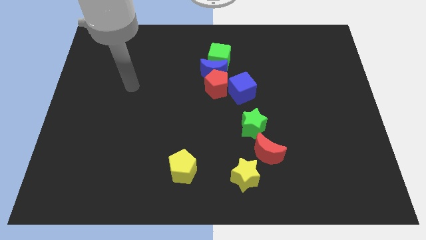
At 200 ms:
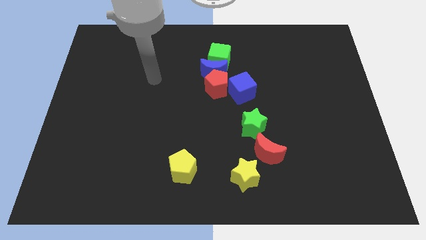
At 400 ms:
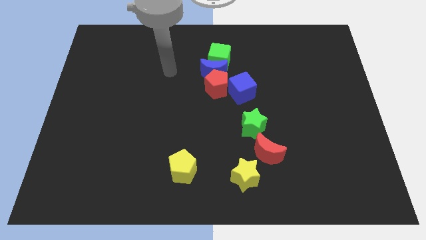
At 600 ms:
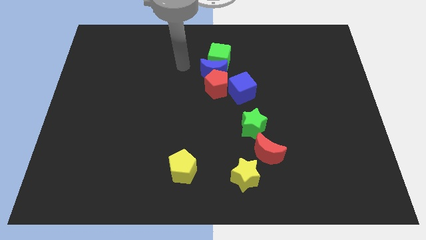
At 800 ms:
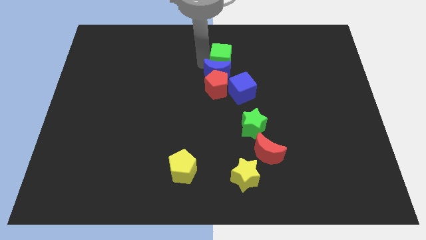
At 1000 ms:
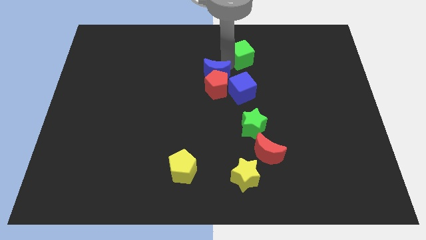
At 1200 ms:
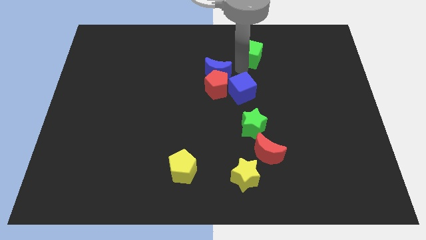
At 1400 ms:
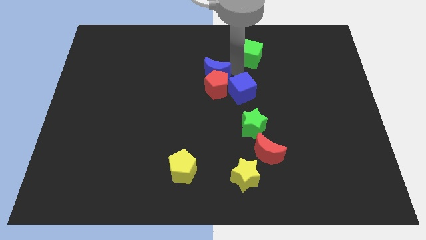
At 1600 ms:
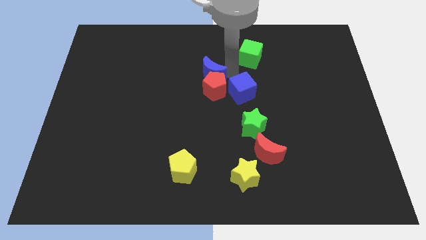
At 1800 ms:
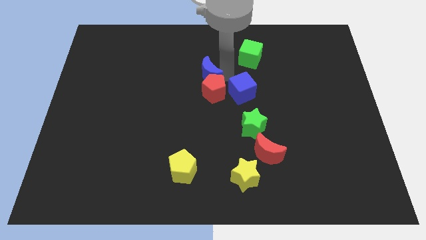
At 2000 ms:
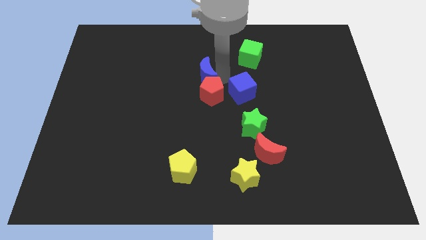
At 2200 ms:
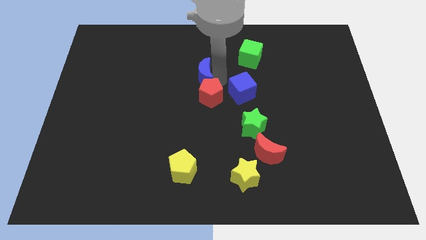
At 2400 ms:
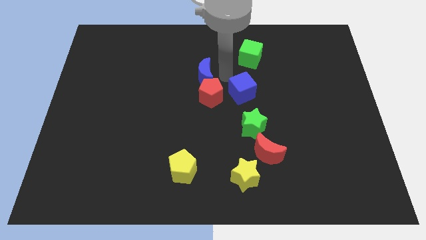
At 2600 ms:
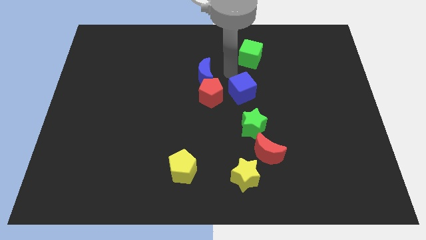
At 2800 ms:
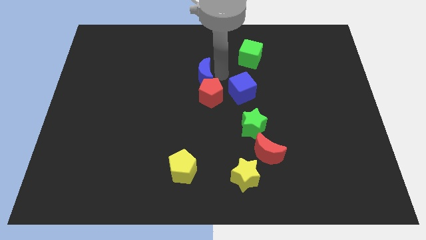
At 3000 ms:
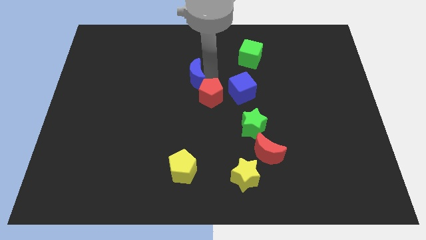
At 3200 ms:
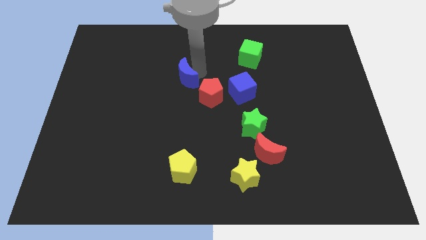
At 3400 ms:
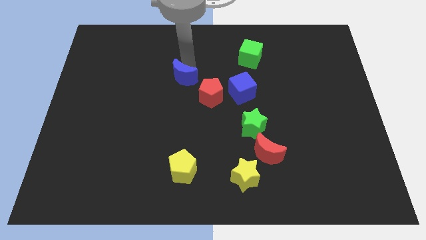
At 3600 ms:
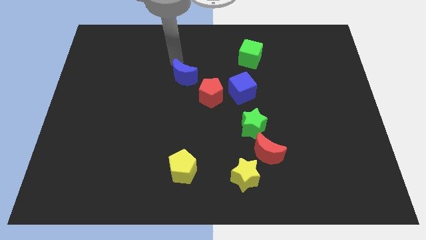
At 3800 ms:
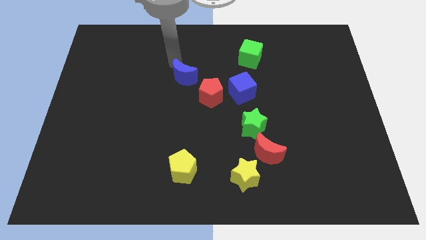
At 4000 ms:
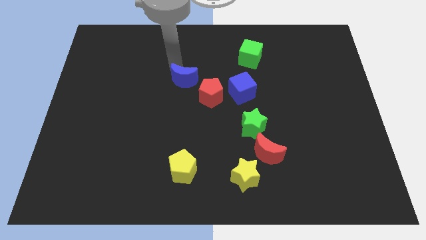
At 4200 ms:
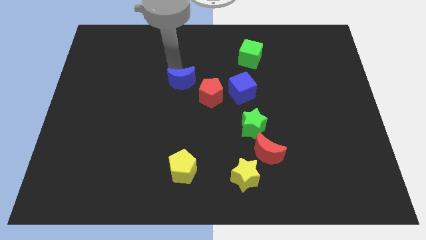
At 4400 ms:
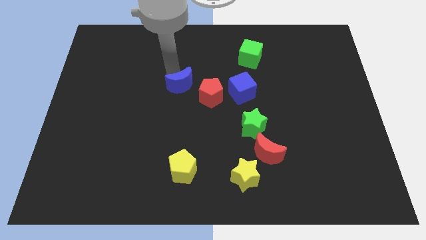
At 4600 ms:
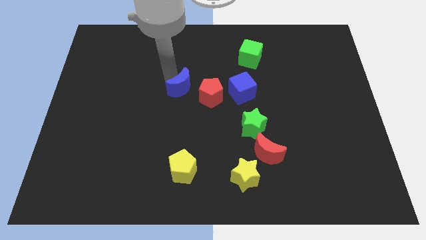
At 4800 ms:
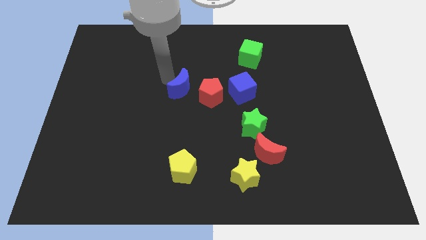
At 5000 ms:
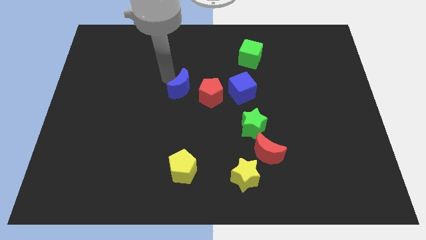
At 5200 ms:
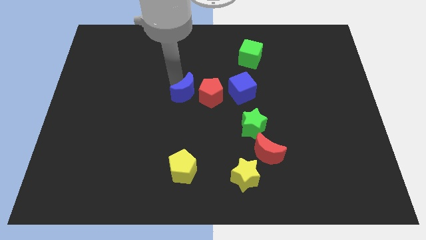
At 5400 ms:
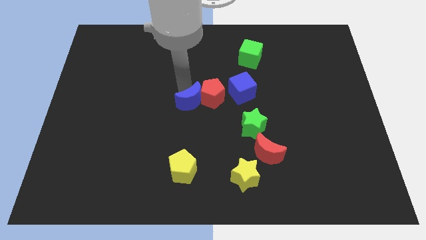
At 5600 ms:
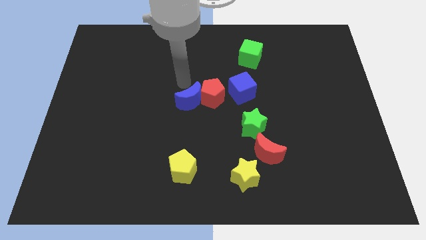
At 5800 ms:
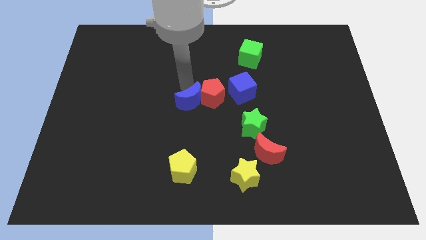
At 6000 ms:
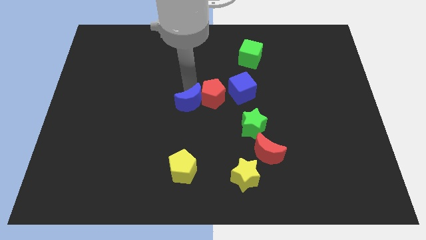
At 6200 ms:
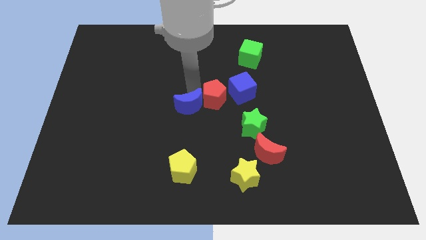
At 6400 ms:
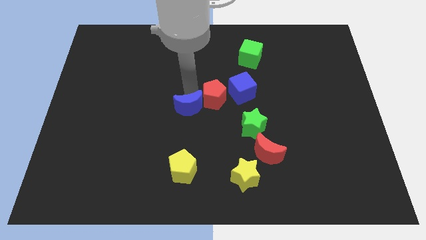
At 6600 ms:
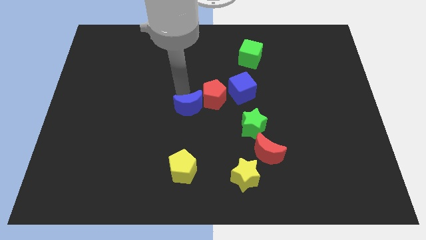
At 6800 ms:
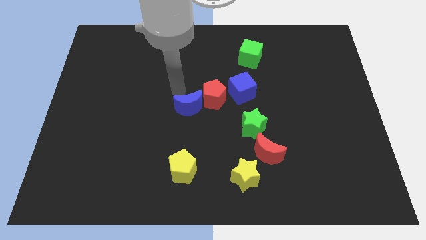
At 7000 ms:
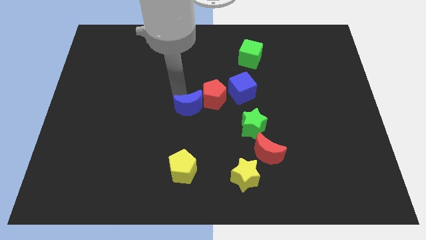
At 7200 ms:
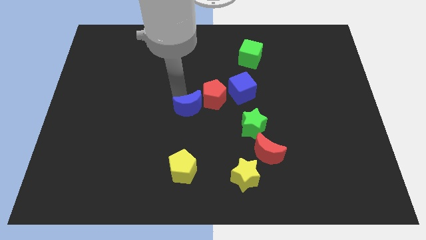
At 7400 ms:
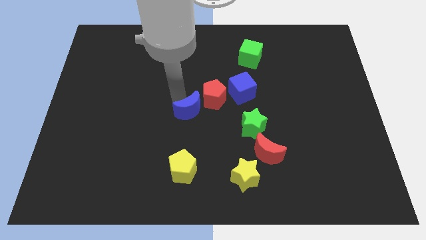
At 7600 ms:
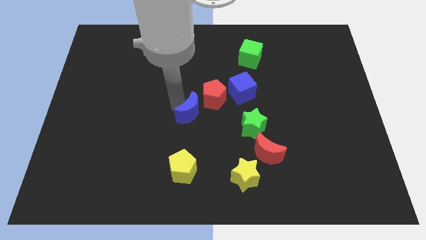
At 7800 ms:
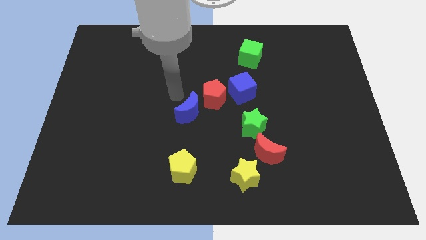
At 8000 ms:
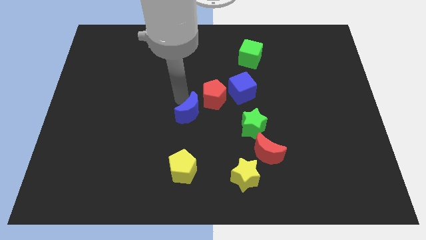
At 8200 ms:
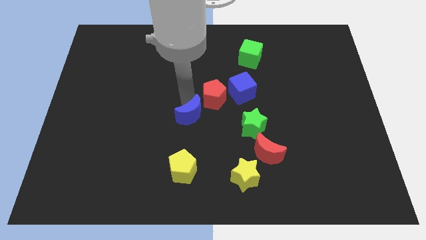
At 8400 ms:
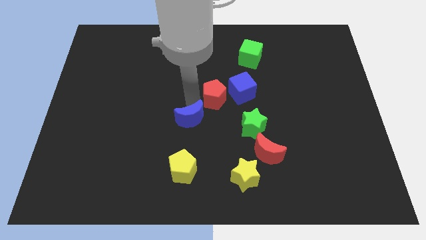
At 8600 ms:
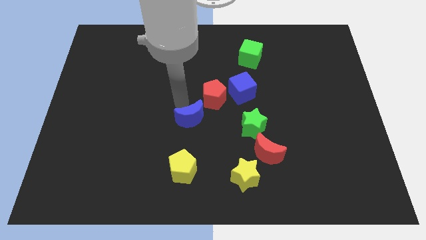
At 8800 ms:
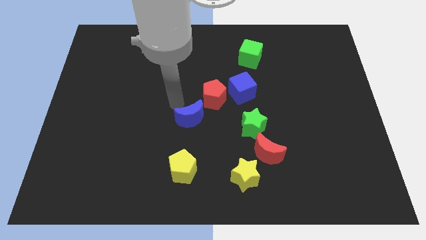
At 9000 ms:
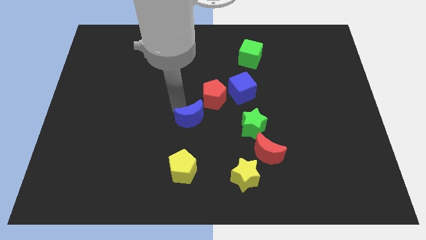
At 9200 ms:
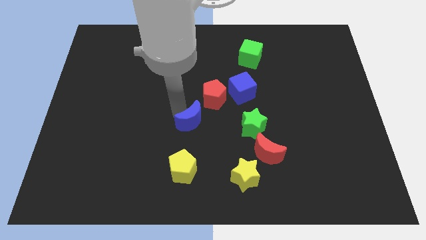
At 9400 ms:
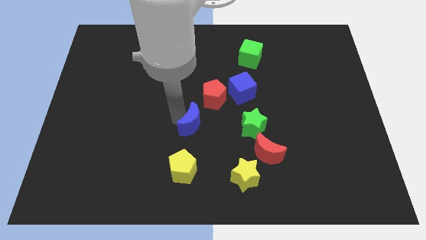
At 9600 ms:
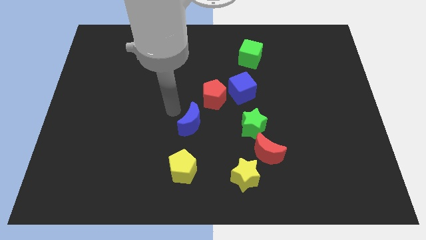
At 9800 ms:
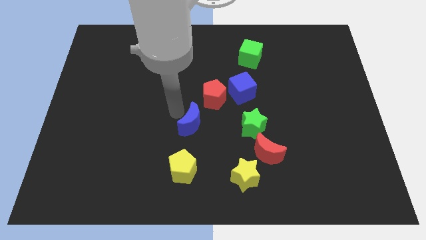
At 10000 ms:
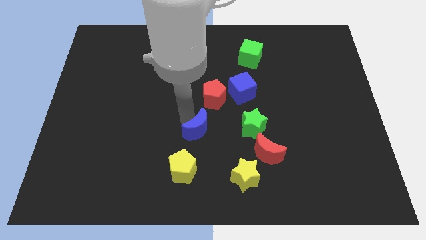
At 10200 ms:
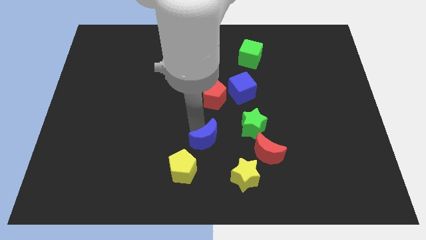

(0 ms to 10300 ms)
put the blue moon diagonally up and to the left of the yellow star

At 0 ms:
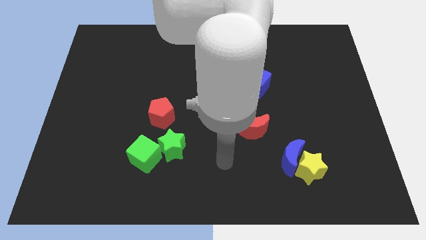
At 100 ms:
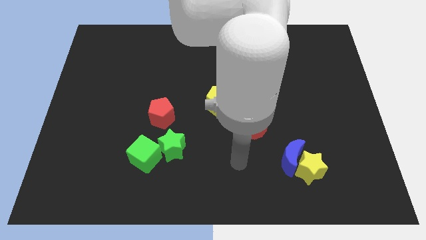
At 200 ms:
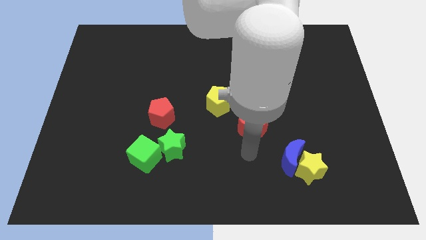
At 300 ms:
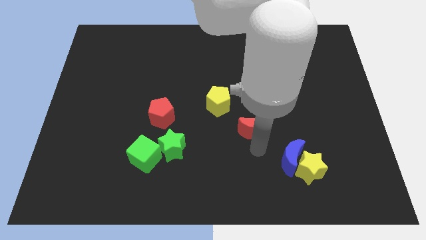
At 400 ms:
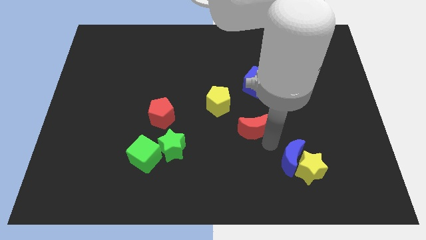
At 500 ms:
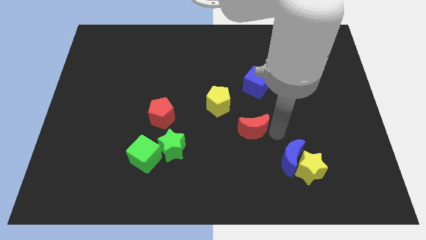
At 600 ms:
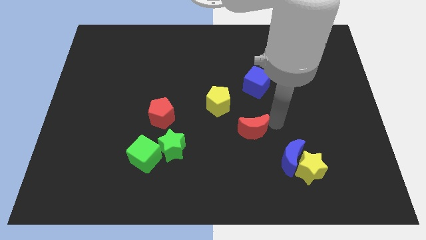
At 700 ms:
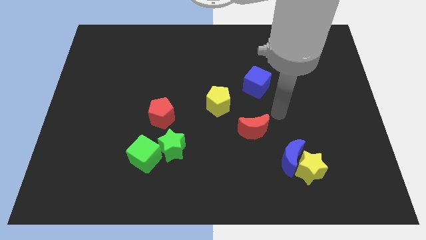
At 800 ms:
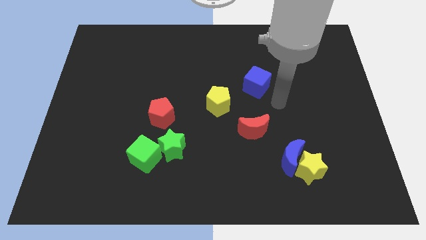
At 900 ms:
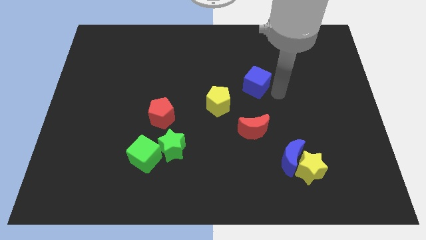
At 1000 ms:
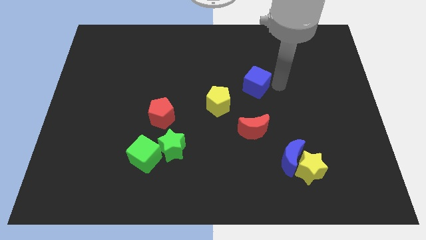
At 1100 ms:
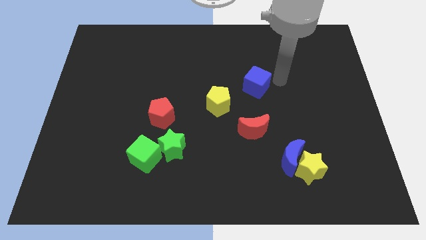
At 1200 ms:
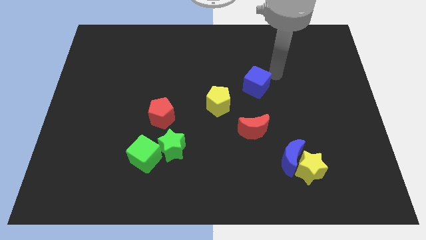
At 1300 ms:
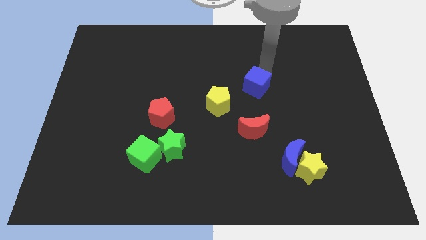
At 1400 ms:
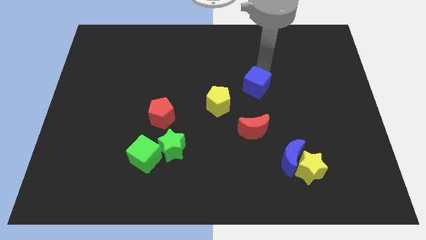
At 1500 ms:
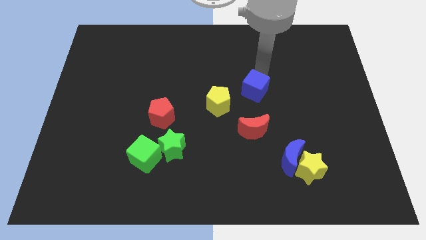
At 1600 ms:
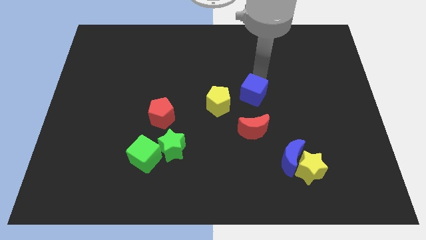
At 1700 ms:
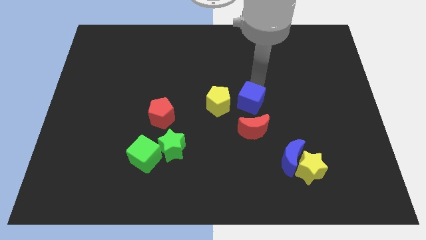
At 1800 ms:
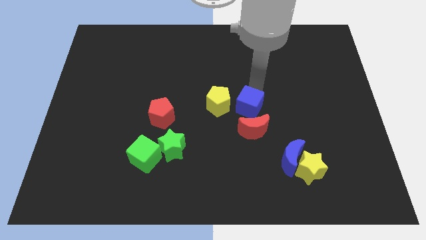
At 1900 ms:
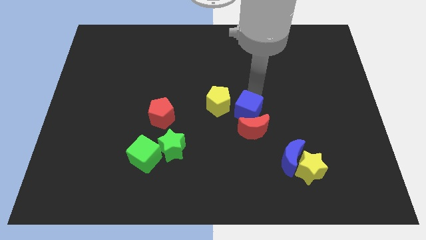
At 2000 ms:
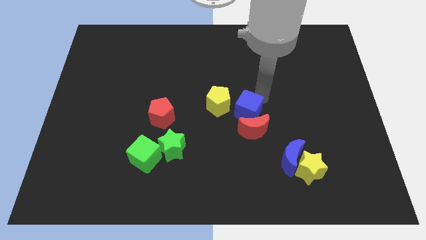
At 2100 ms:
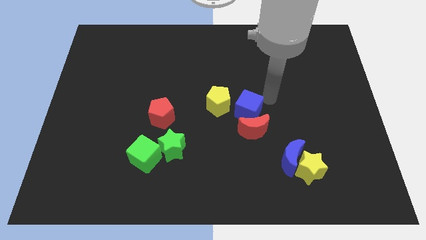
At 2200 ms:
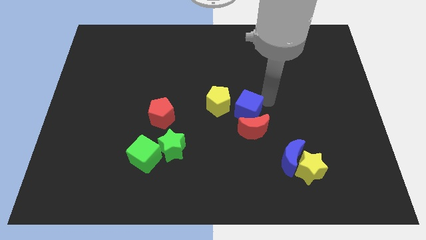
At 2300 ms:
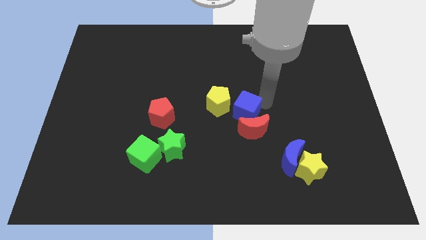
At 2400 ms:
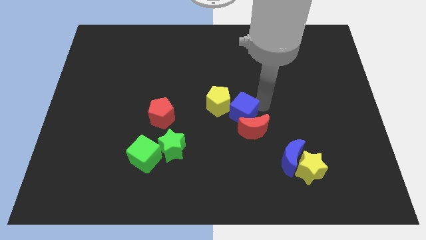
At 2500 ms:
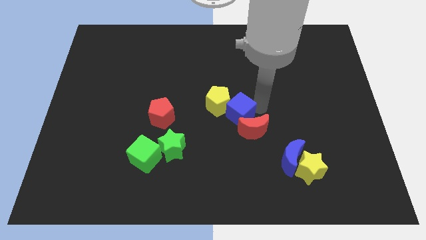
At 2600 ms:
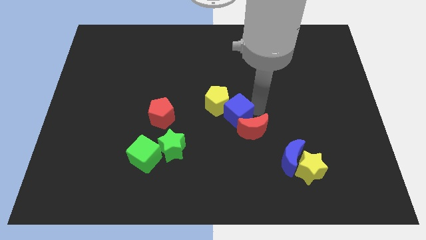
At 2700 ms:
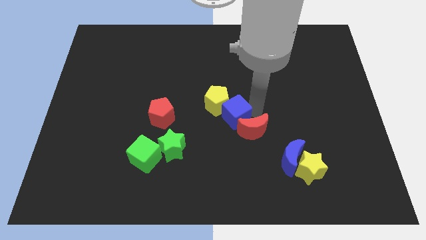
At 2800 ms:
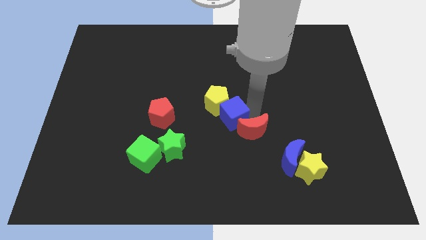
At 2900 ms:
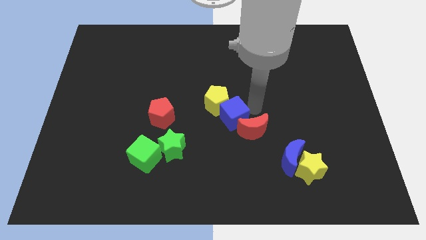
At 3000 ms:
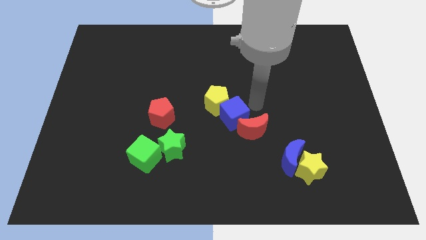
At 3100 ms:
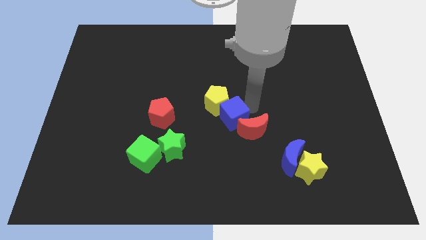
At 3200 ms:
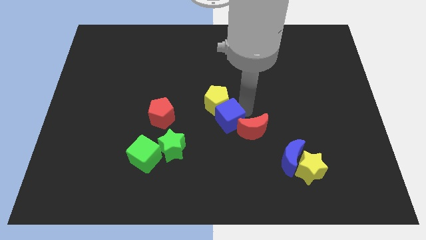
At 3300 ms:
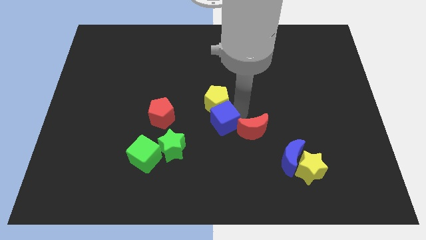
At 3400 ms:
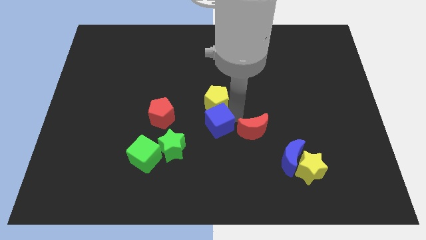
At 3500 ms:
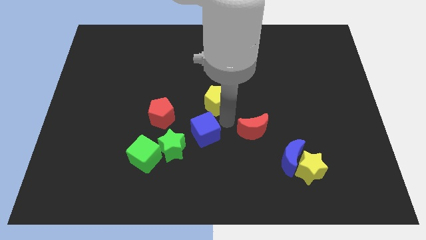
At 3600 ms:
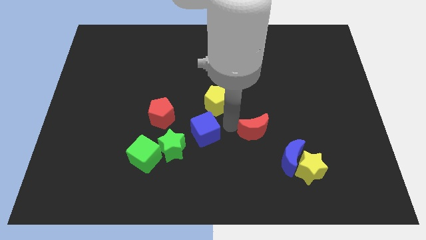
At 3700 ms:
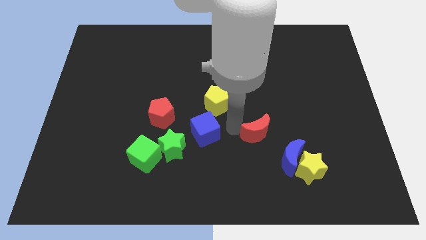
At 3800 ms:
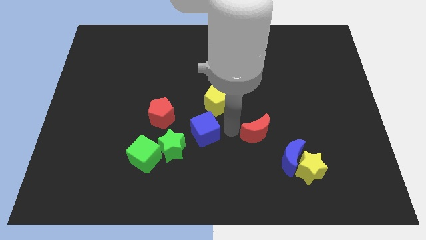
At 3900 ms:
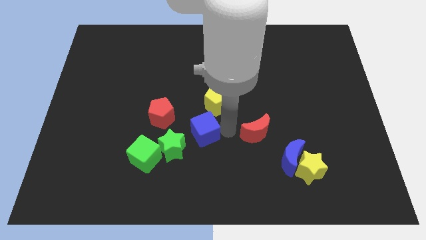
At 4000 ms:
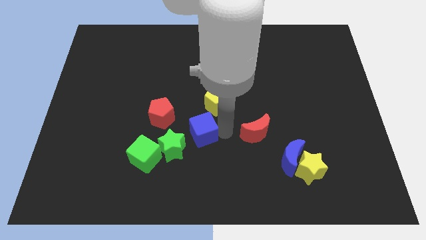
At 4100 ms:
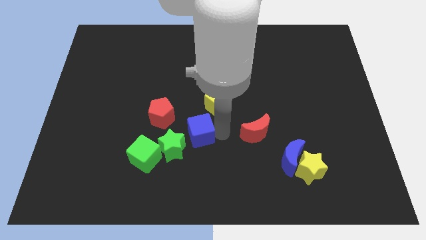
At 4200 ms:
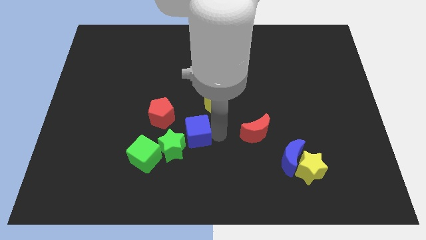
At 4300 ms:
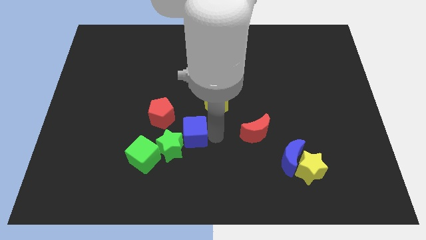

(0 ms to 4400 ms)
move the blue cube to the top right side of the green cube
